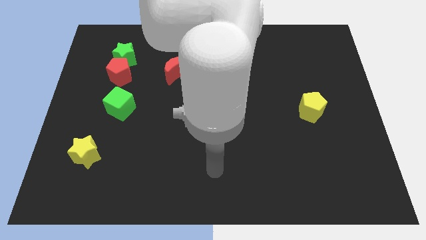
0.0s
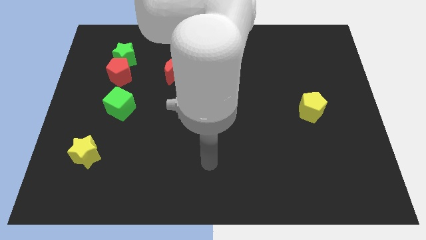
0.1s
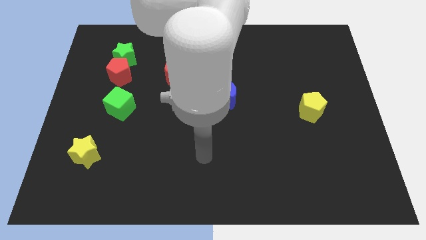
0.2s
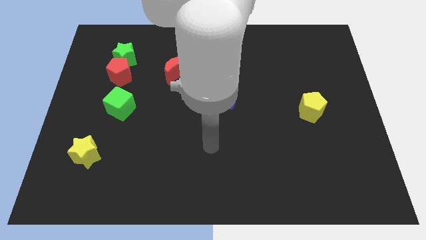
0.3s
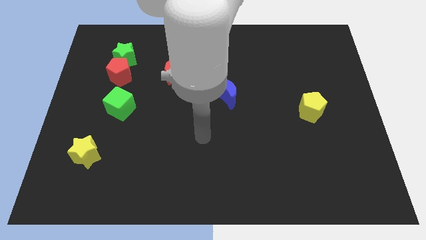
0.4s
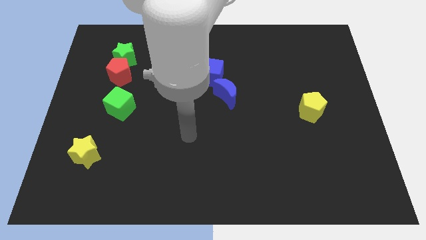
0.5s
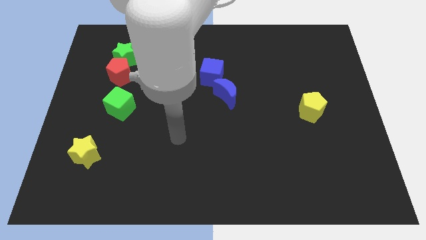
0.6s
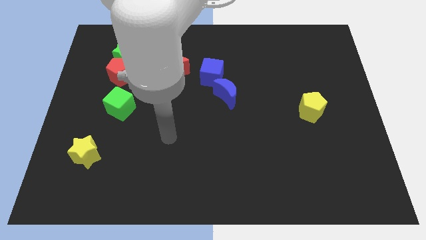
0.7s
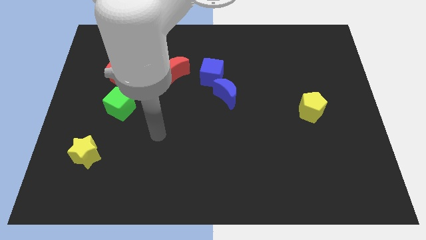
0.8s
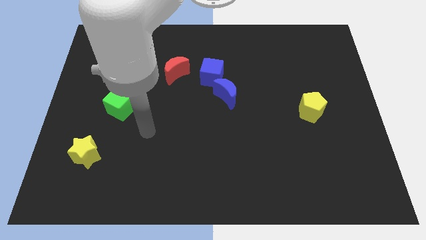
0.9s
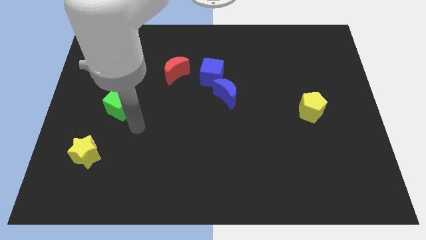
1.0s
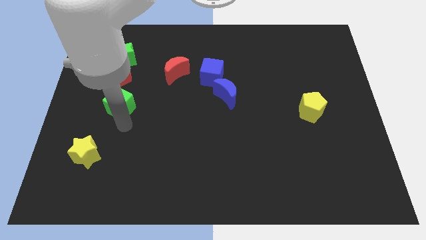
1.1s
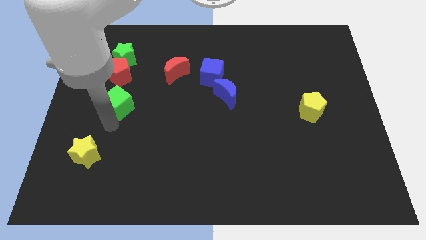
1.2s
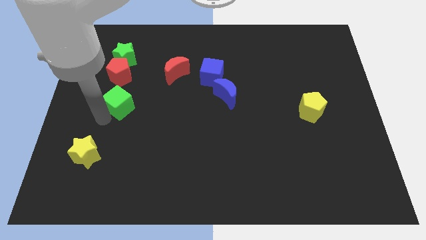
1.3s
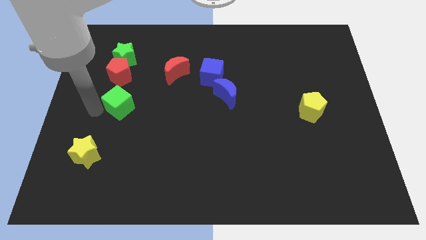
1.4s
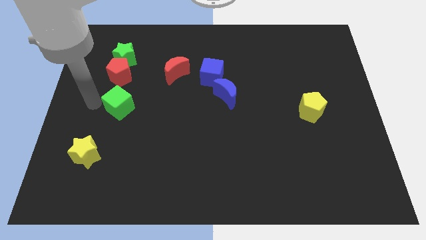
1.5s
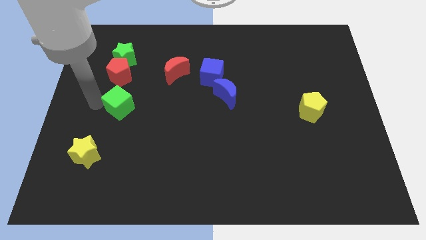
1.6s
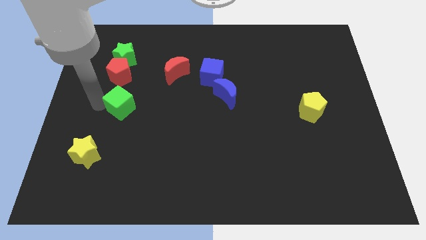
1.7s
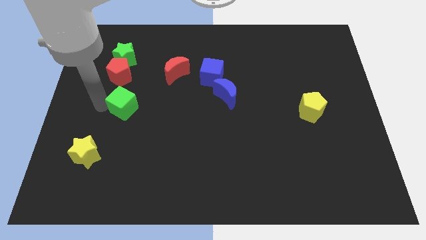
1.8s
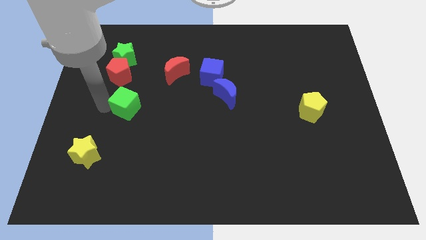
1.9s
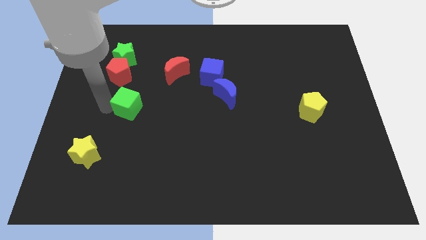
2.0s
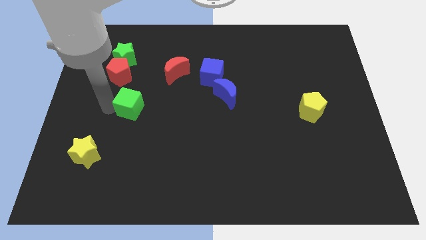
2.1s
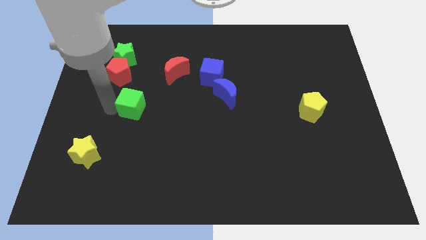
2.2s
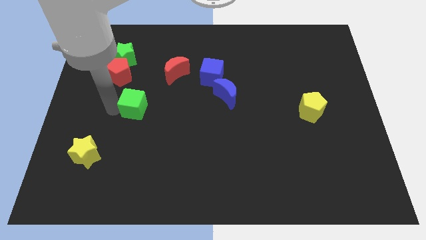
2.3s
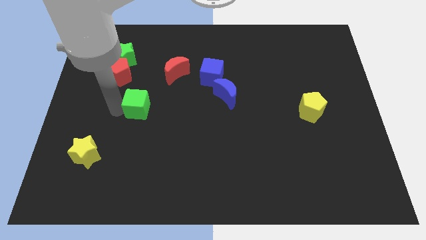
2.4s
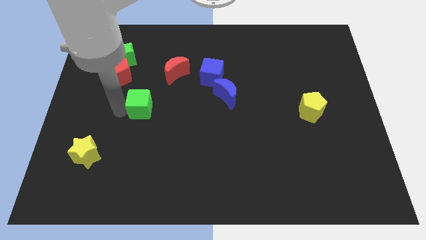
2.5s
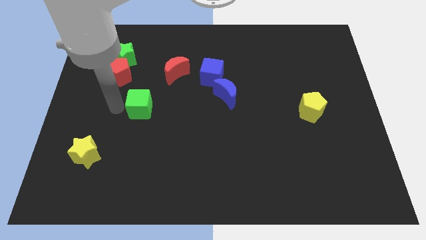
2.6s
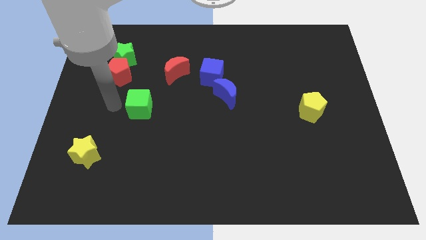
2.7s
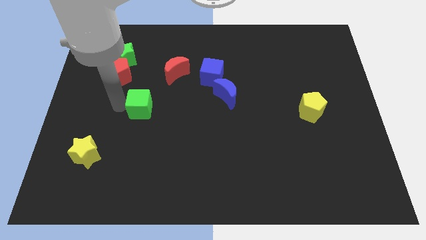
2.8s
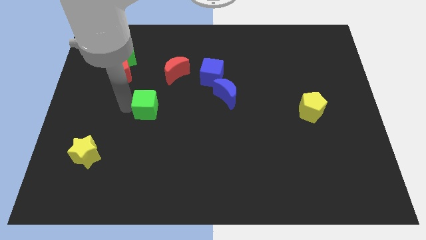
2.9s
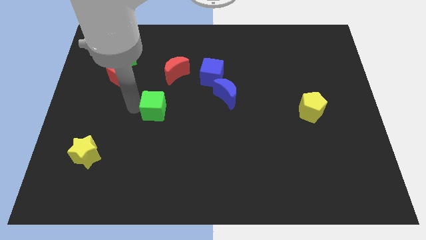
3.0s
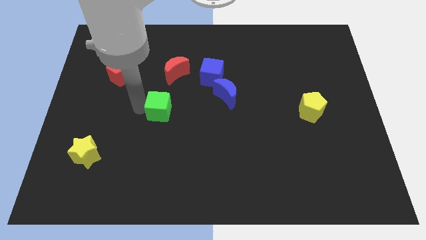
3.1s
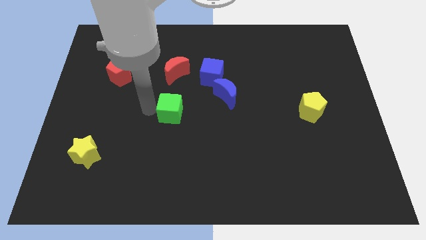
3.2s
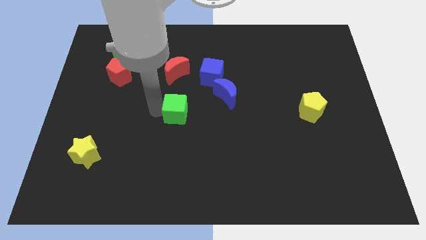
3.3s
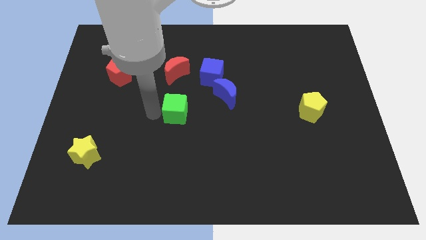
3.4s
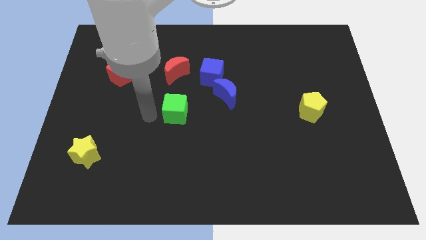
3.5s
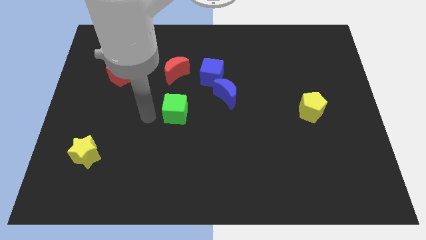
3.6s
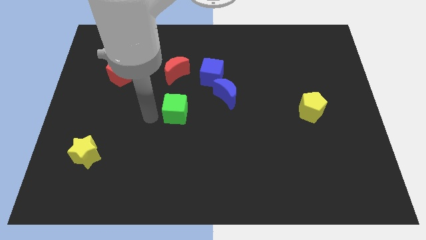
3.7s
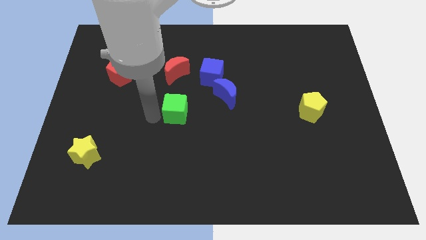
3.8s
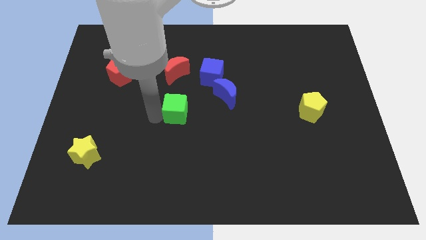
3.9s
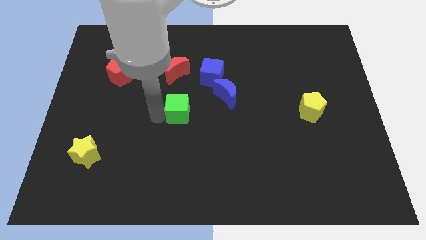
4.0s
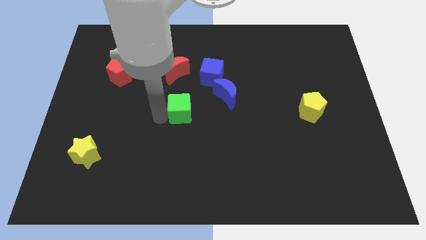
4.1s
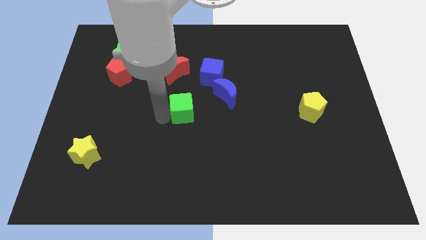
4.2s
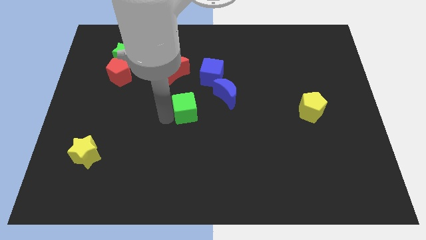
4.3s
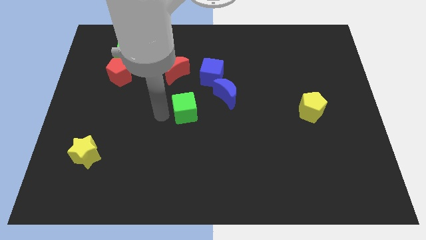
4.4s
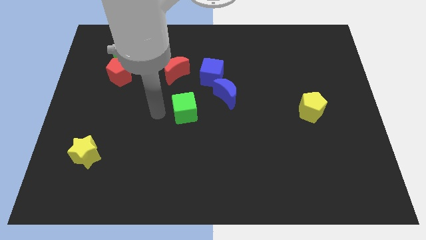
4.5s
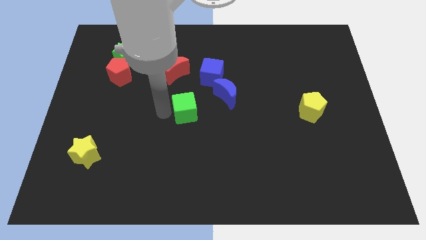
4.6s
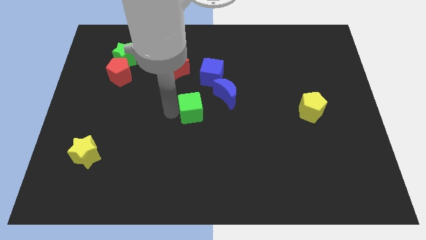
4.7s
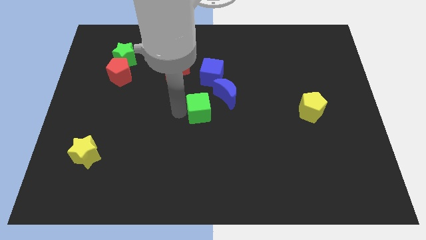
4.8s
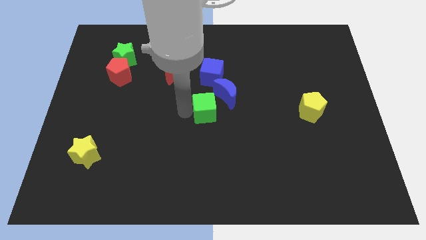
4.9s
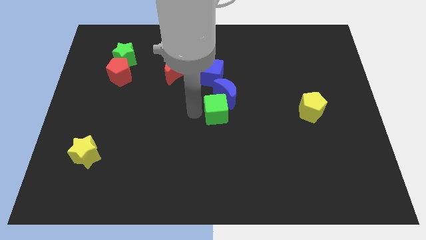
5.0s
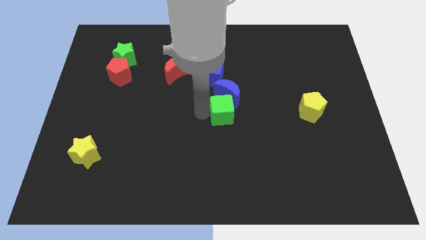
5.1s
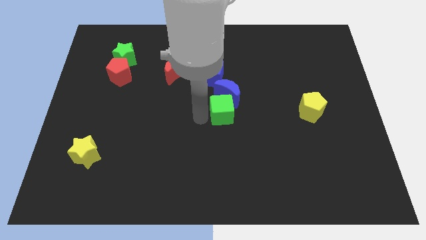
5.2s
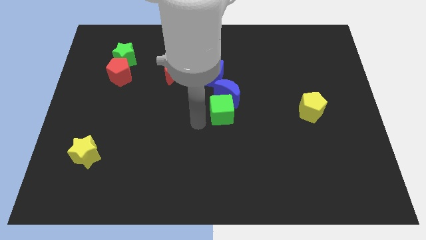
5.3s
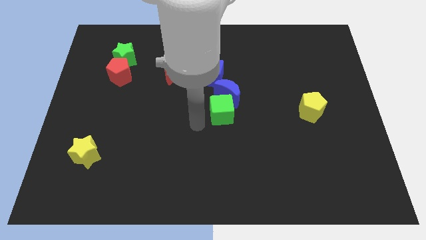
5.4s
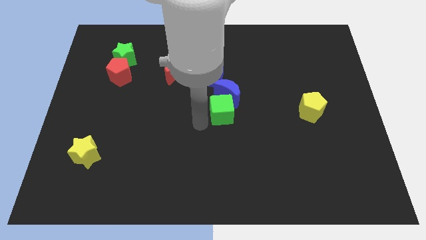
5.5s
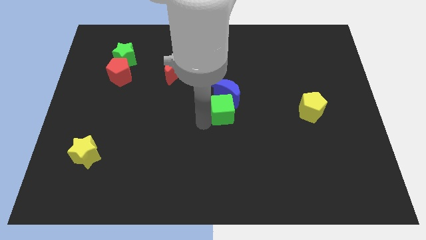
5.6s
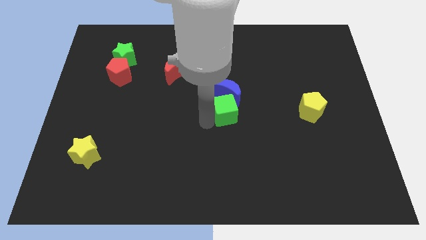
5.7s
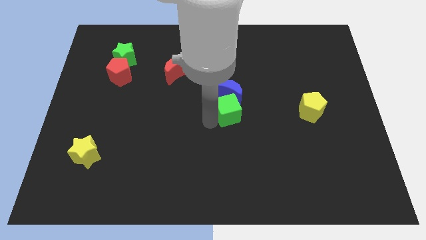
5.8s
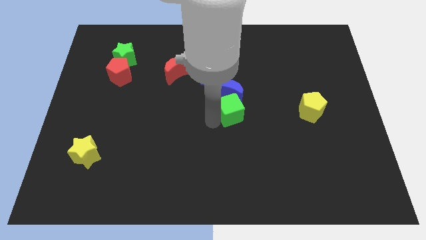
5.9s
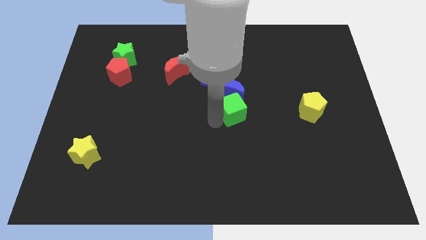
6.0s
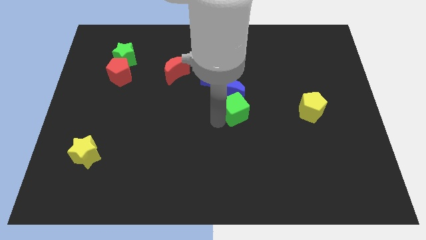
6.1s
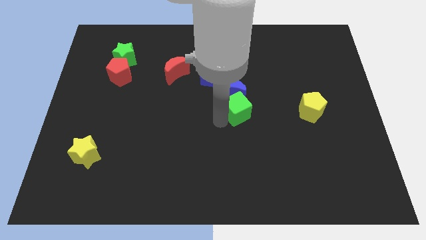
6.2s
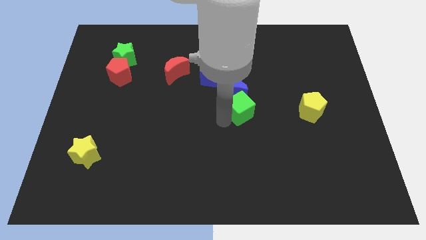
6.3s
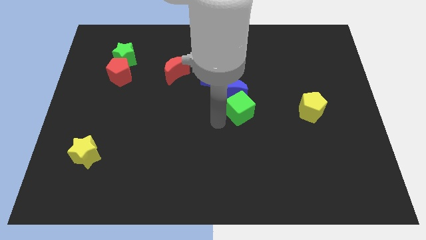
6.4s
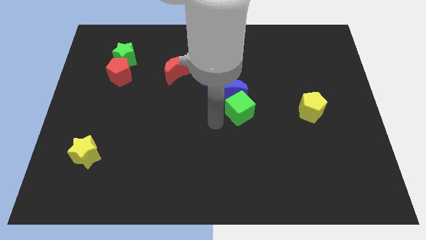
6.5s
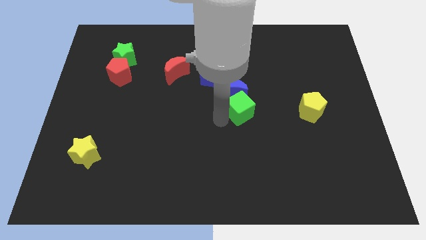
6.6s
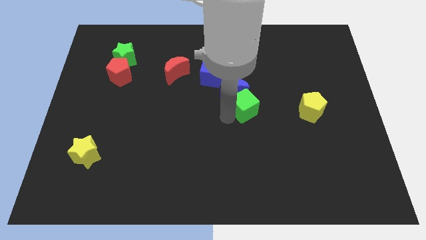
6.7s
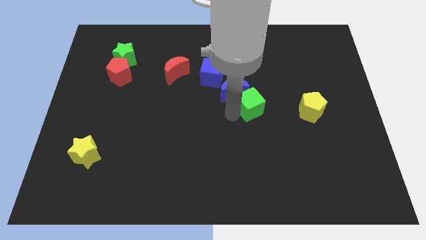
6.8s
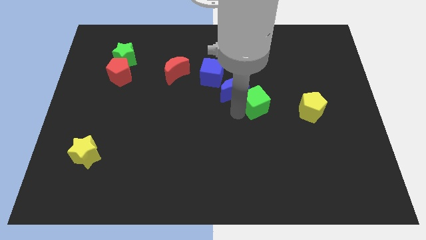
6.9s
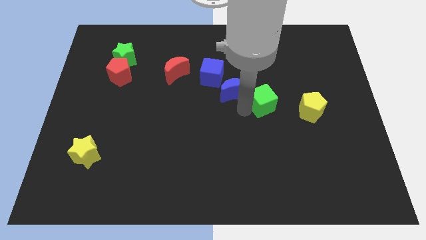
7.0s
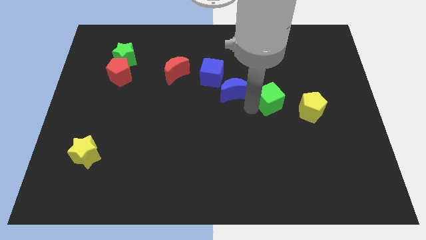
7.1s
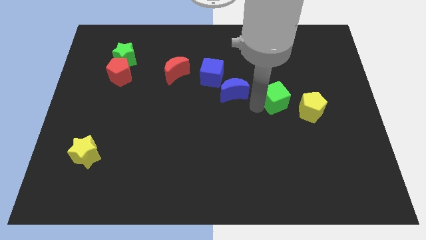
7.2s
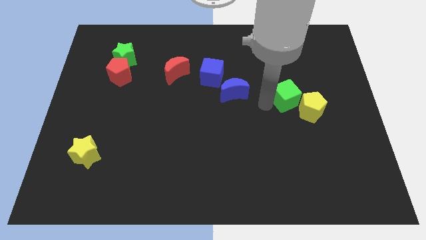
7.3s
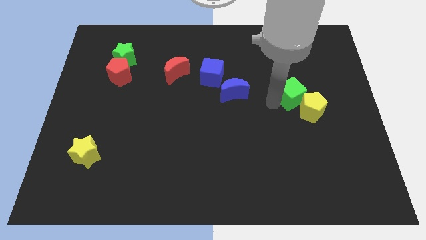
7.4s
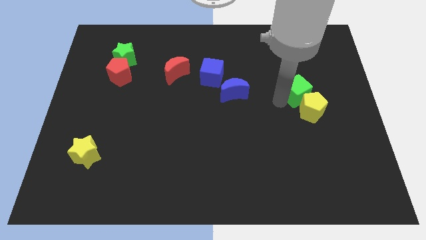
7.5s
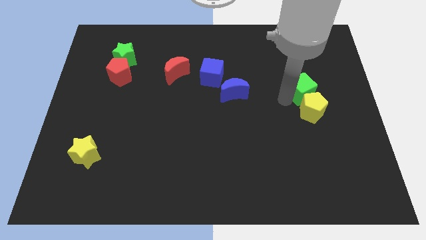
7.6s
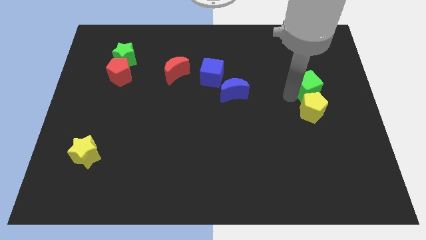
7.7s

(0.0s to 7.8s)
push the green cube to the top right side of the yellow pentagon
